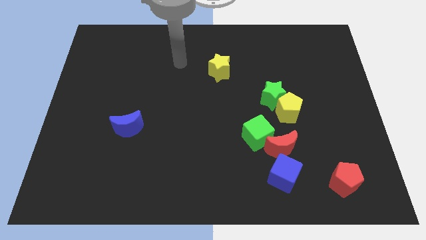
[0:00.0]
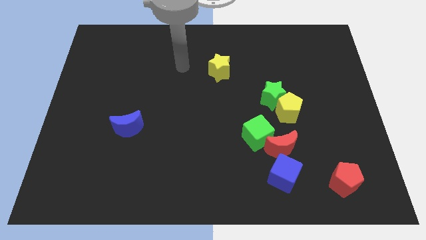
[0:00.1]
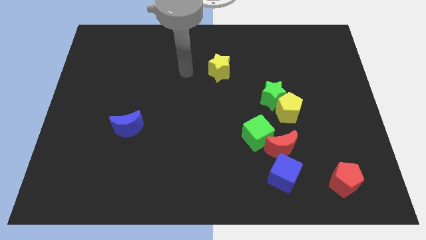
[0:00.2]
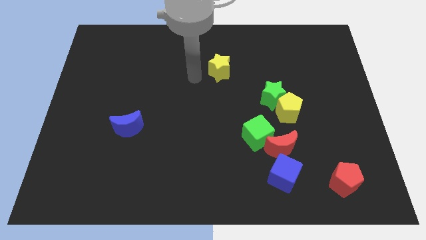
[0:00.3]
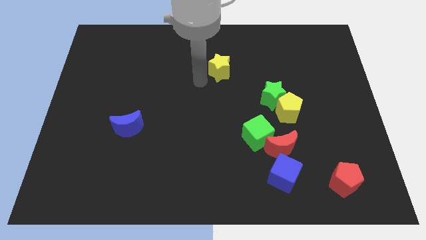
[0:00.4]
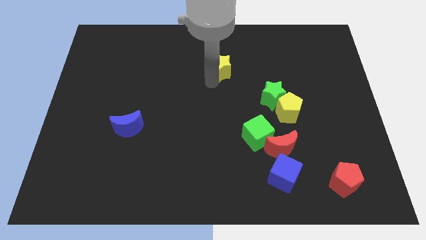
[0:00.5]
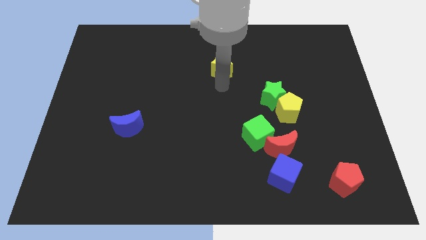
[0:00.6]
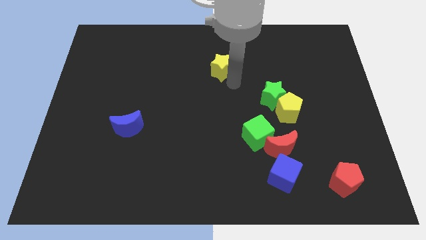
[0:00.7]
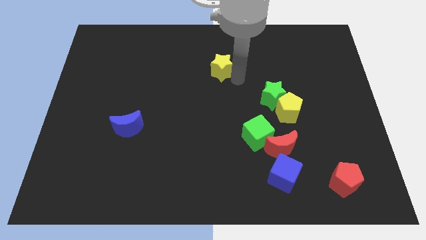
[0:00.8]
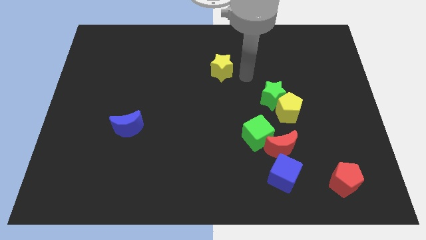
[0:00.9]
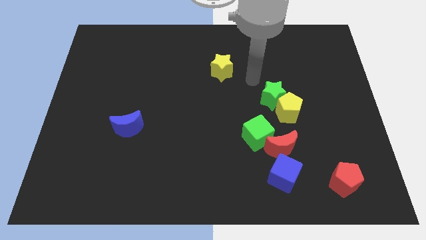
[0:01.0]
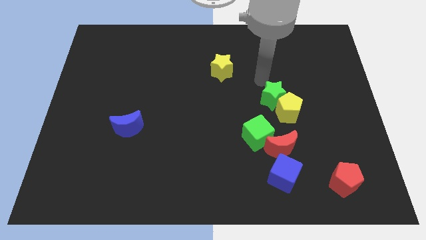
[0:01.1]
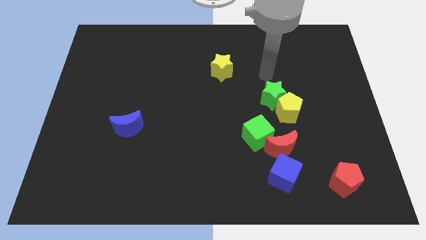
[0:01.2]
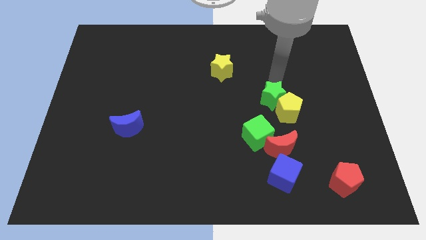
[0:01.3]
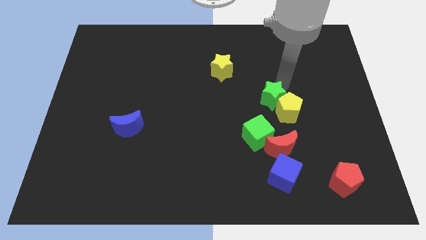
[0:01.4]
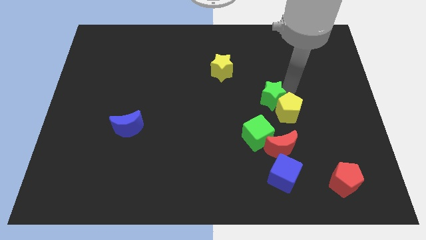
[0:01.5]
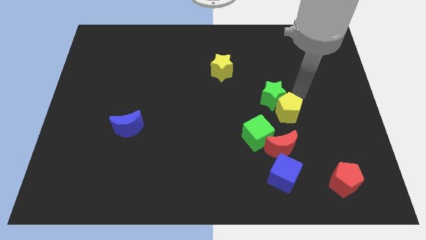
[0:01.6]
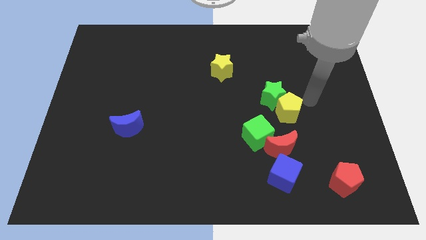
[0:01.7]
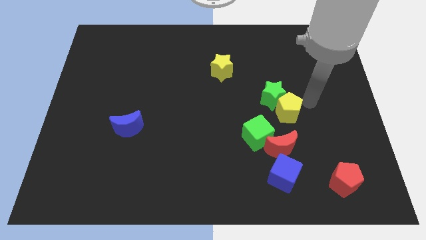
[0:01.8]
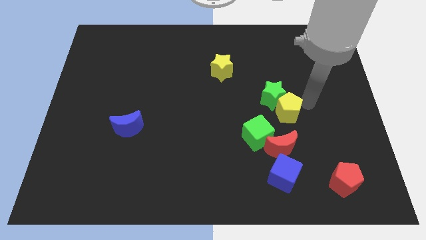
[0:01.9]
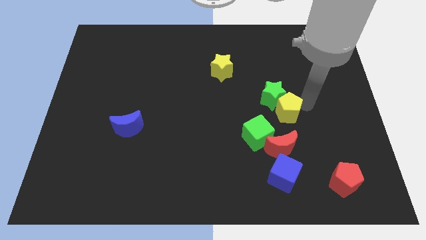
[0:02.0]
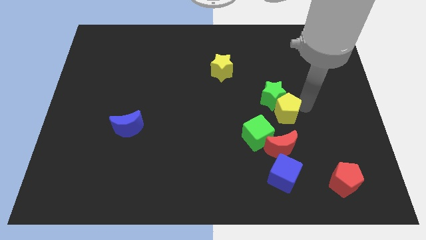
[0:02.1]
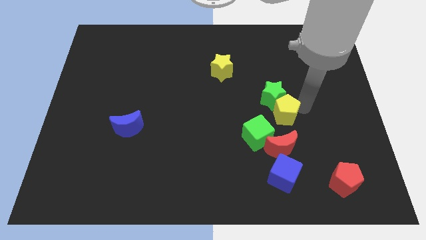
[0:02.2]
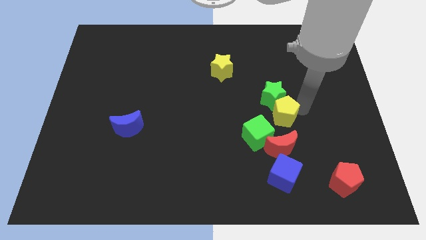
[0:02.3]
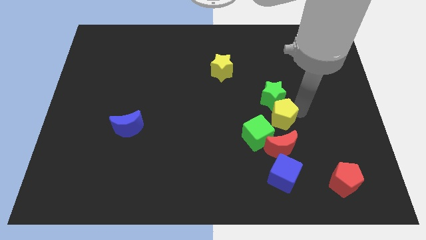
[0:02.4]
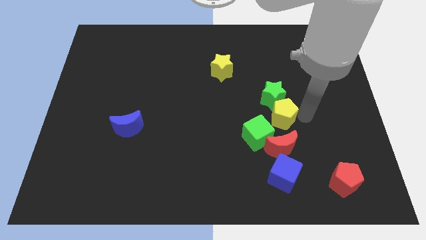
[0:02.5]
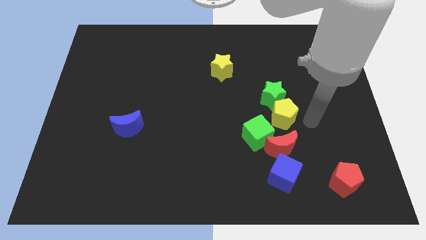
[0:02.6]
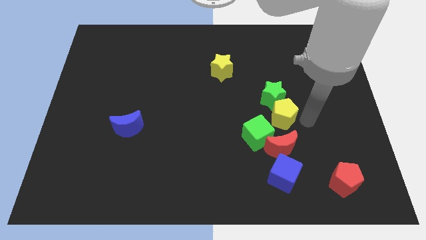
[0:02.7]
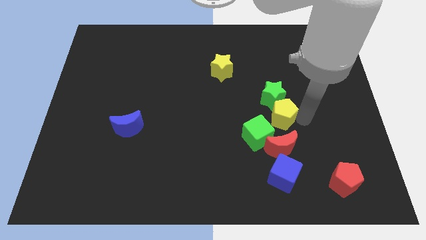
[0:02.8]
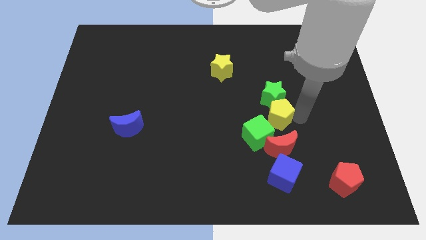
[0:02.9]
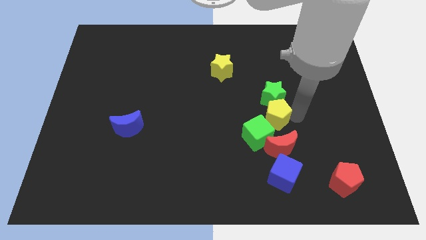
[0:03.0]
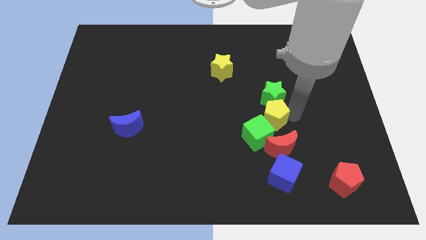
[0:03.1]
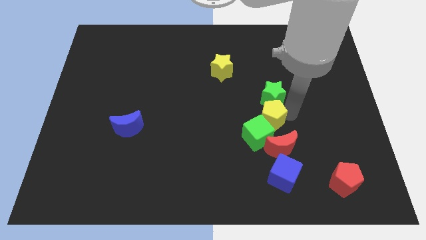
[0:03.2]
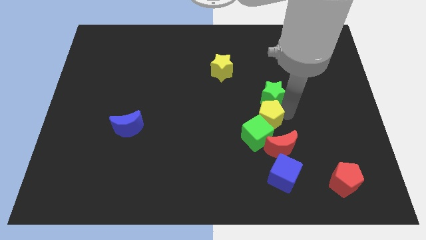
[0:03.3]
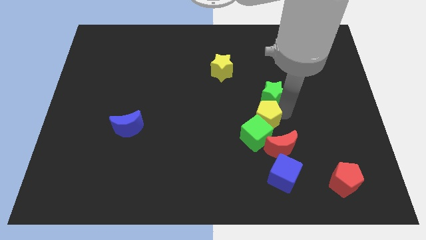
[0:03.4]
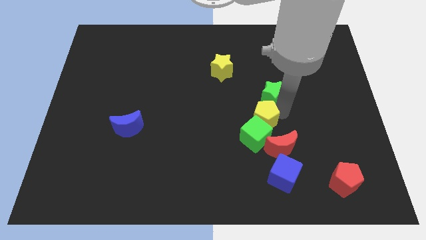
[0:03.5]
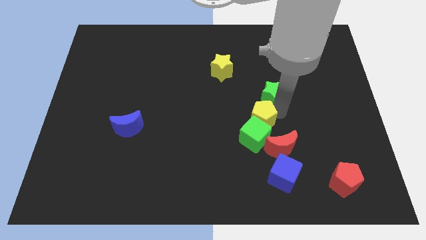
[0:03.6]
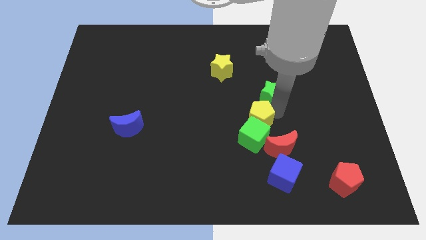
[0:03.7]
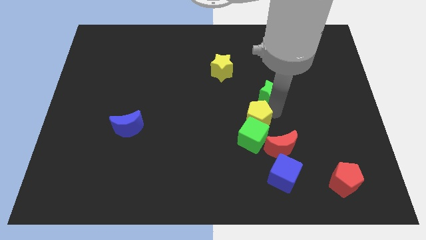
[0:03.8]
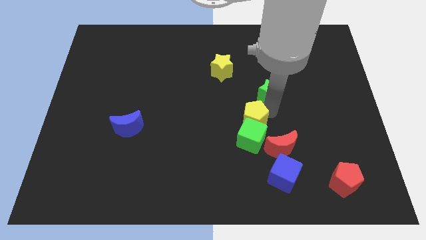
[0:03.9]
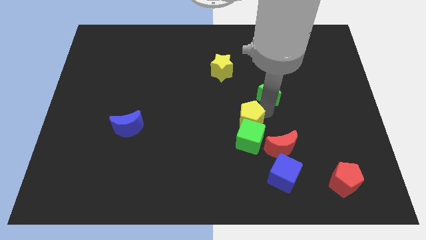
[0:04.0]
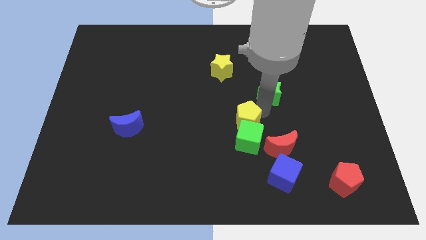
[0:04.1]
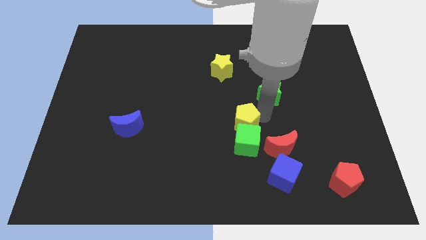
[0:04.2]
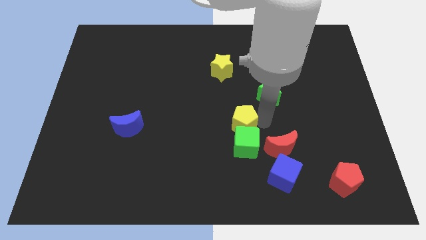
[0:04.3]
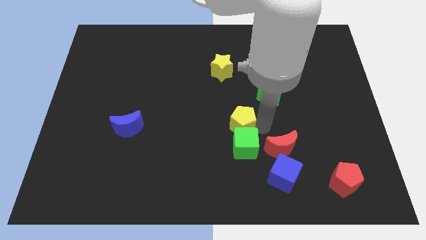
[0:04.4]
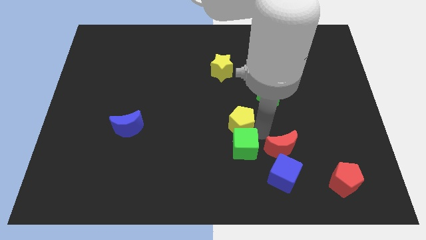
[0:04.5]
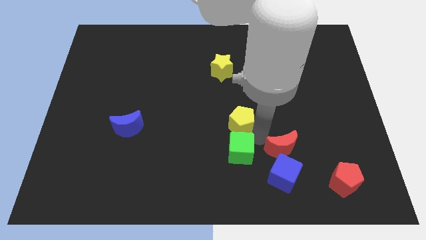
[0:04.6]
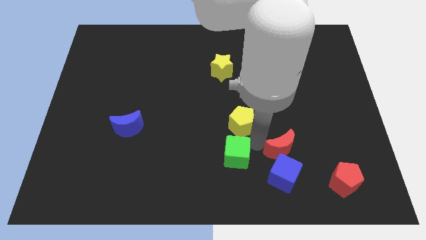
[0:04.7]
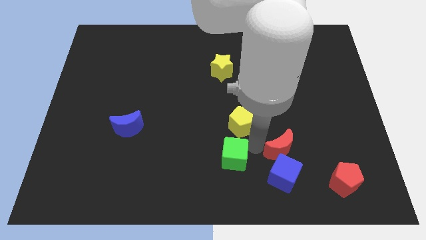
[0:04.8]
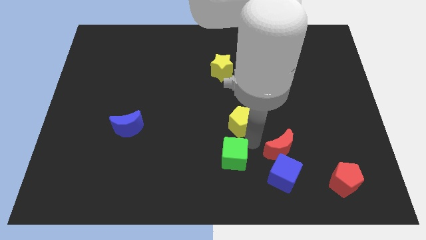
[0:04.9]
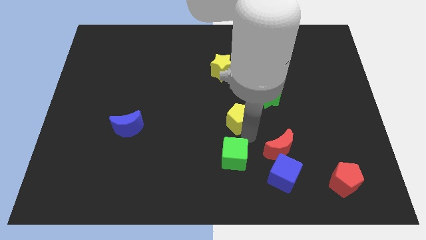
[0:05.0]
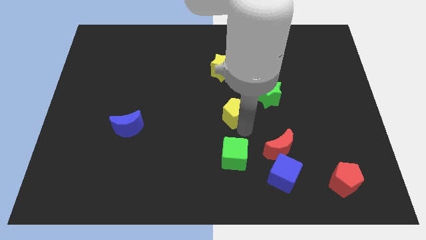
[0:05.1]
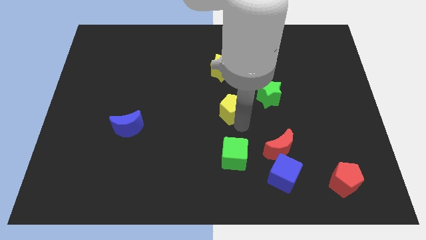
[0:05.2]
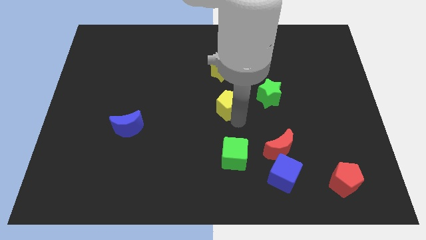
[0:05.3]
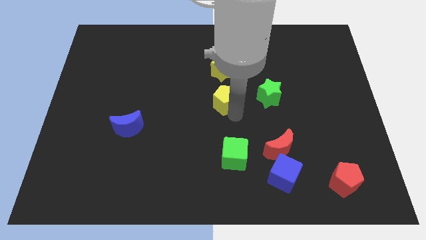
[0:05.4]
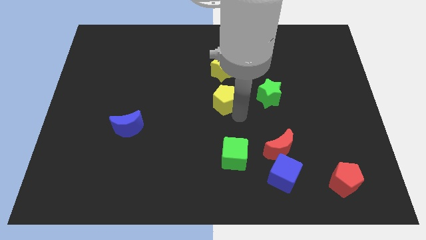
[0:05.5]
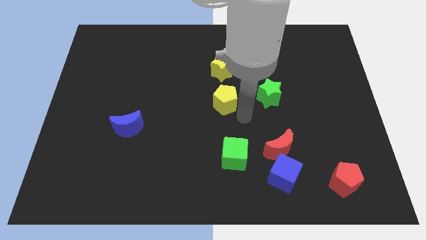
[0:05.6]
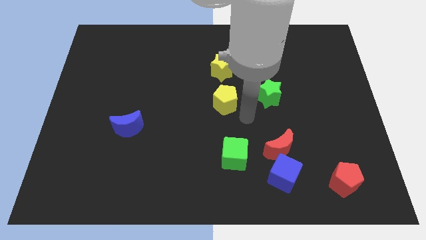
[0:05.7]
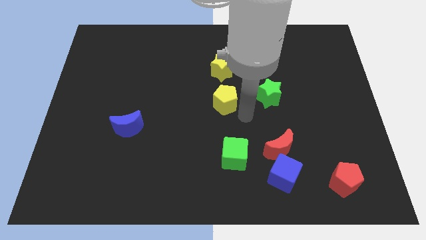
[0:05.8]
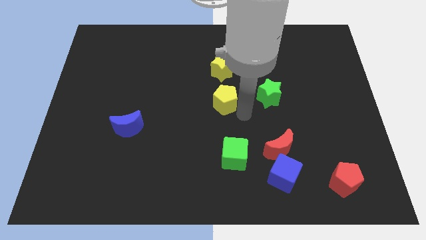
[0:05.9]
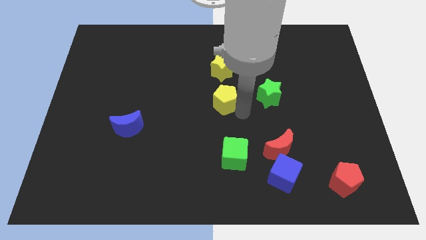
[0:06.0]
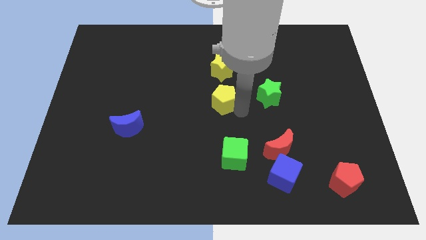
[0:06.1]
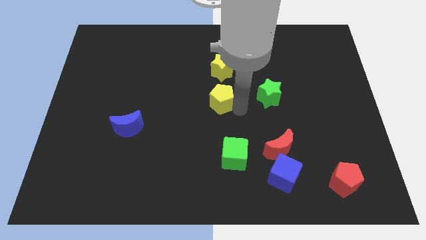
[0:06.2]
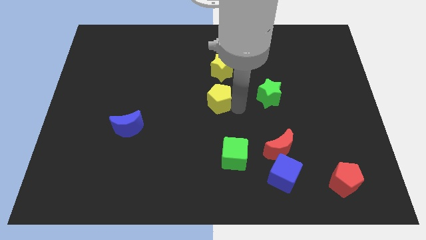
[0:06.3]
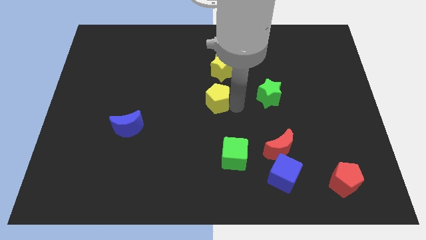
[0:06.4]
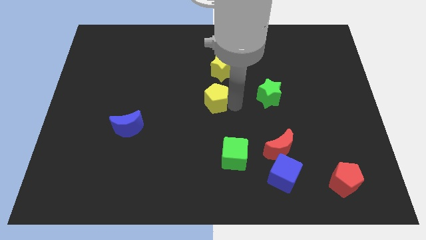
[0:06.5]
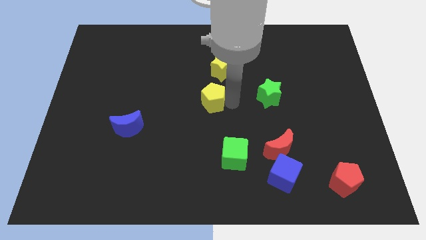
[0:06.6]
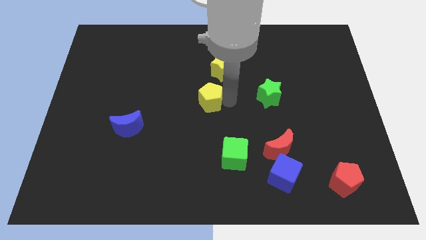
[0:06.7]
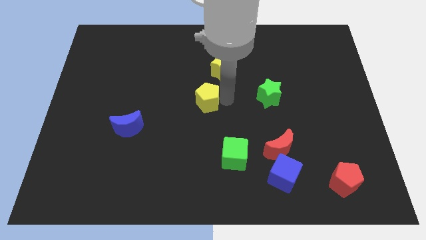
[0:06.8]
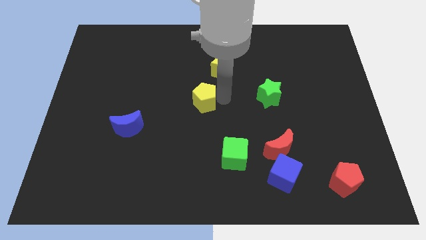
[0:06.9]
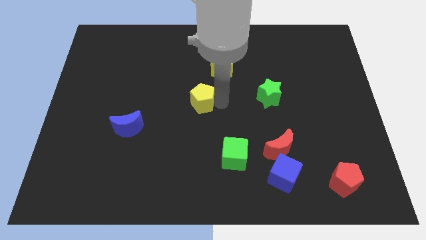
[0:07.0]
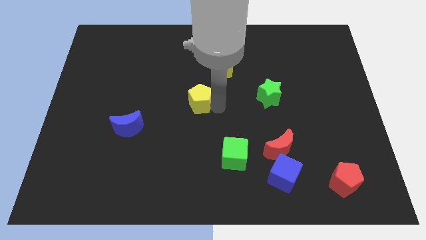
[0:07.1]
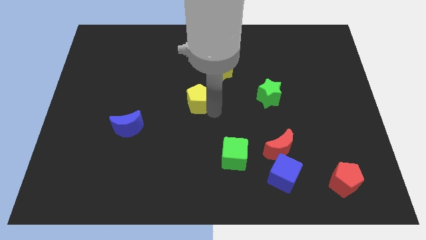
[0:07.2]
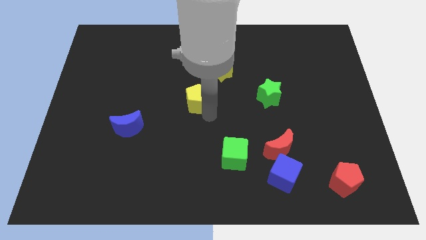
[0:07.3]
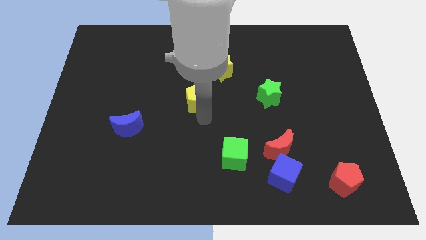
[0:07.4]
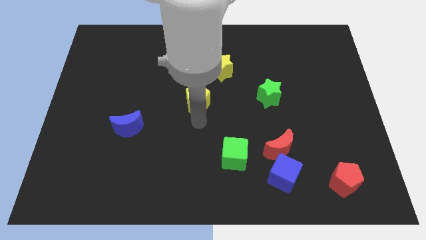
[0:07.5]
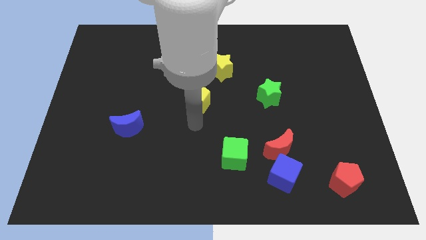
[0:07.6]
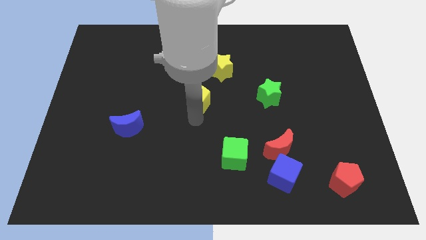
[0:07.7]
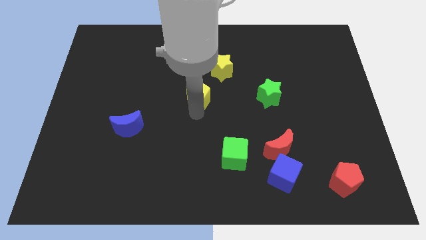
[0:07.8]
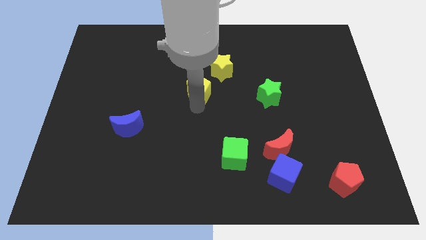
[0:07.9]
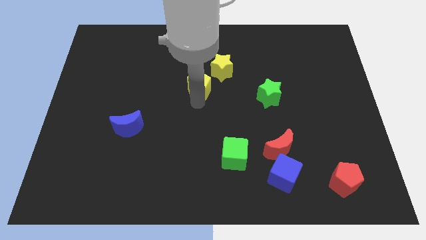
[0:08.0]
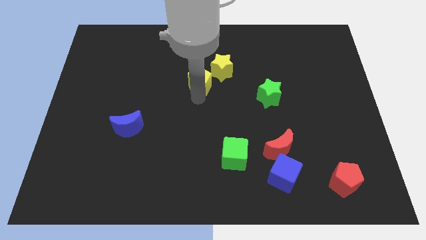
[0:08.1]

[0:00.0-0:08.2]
slide the yellow pentagon left of the yellow star
